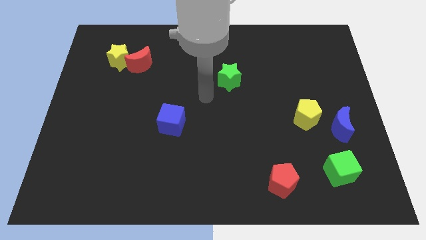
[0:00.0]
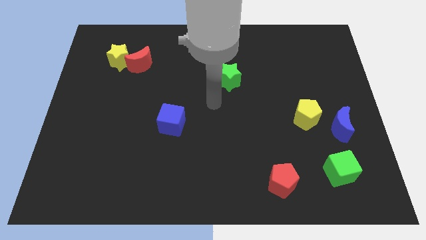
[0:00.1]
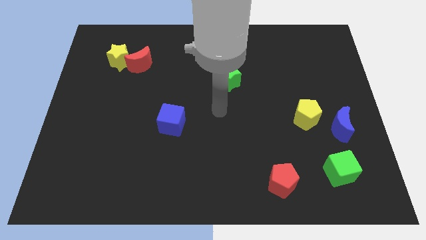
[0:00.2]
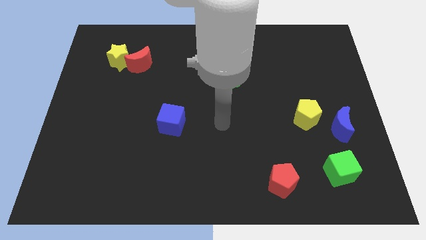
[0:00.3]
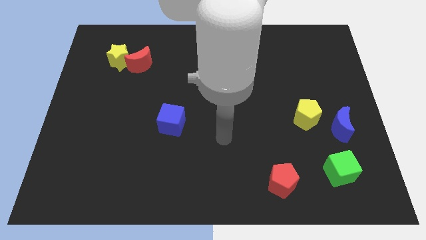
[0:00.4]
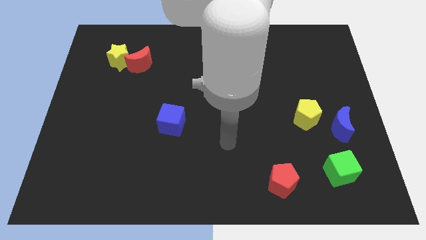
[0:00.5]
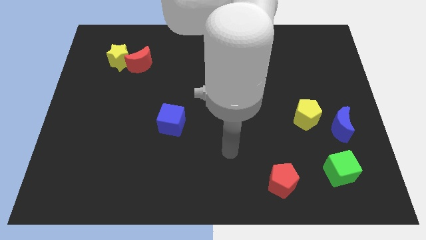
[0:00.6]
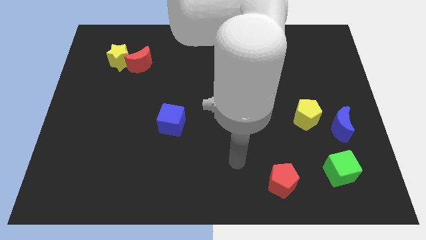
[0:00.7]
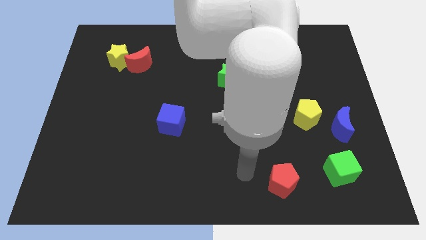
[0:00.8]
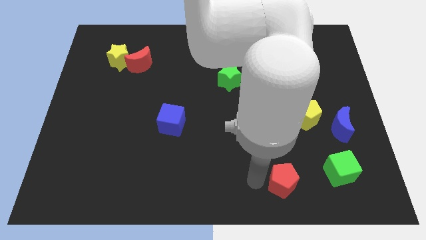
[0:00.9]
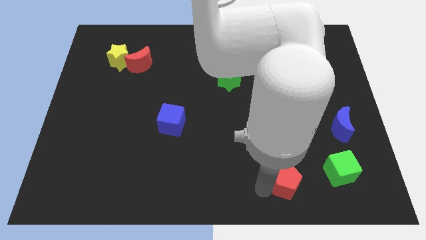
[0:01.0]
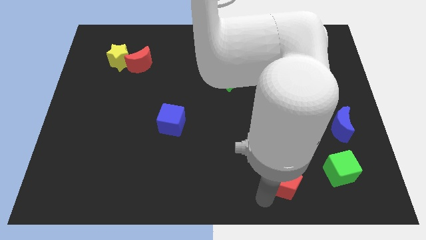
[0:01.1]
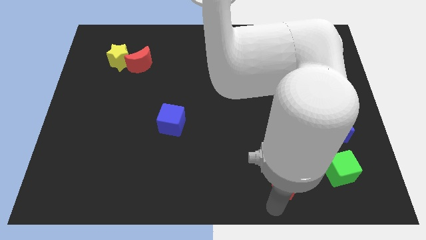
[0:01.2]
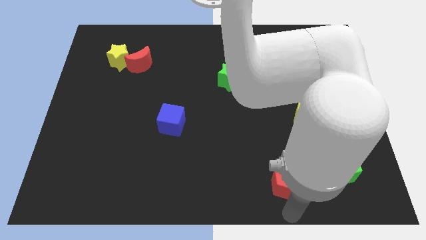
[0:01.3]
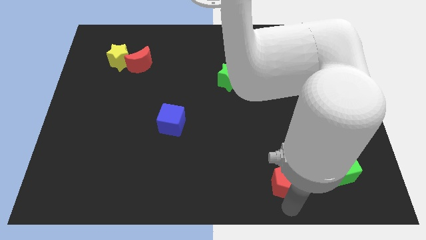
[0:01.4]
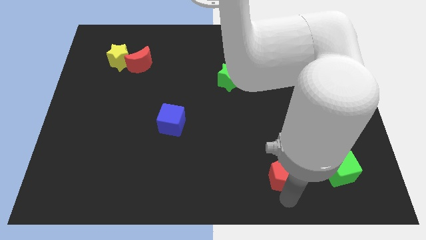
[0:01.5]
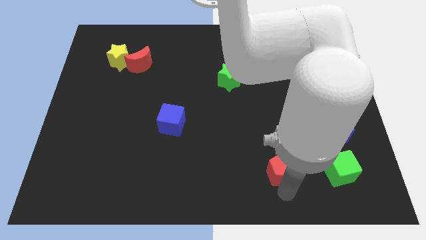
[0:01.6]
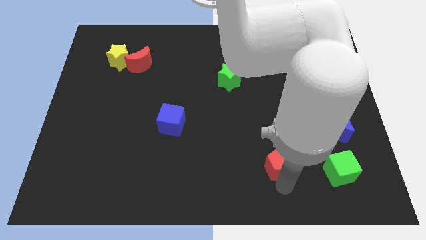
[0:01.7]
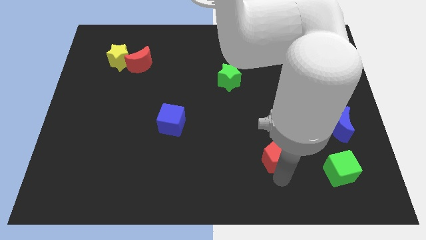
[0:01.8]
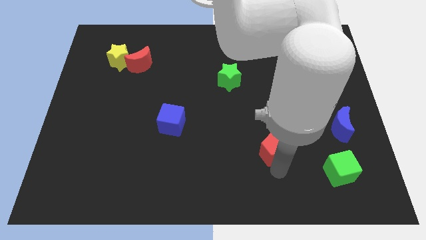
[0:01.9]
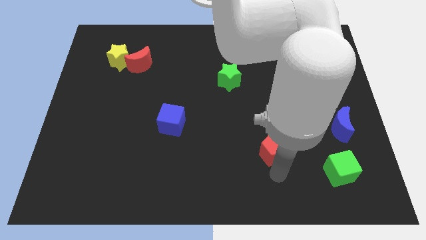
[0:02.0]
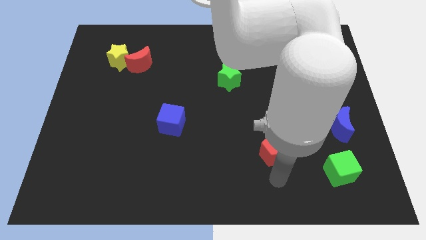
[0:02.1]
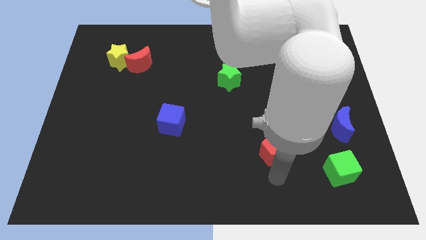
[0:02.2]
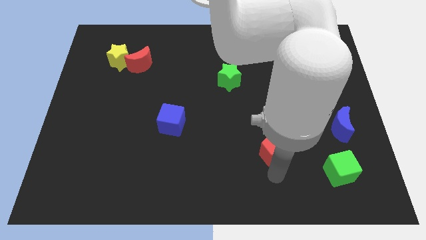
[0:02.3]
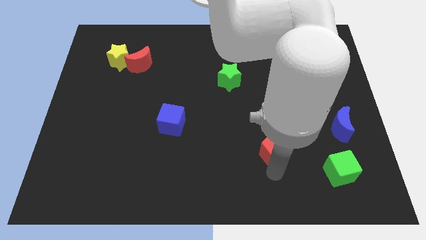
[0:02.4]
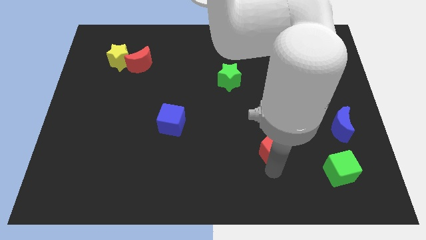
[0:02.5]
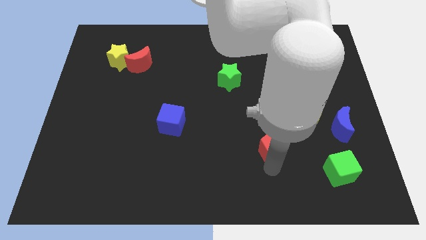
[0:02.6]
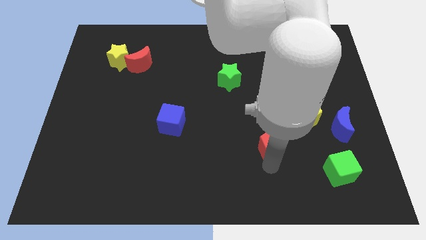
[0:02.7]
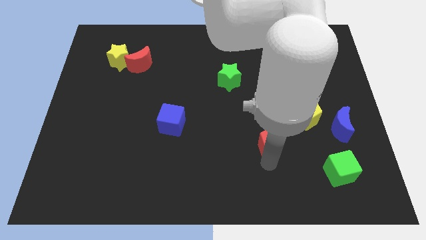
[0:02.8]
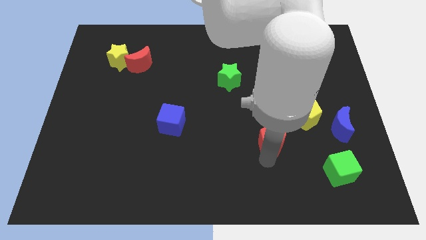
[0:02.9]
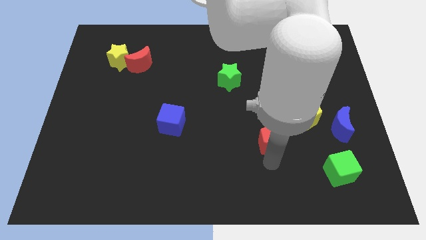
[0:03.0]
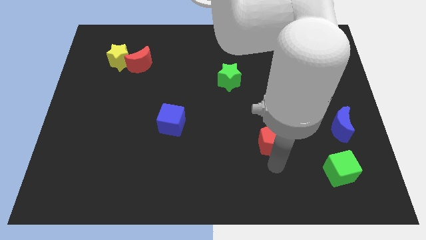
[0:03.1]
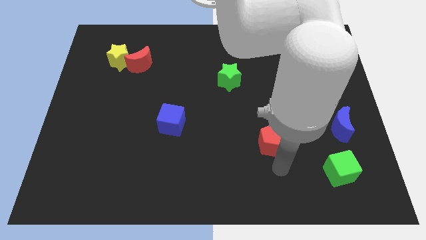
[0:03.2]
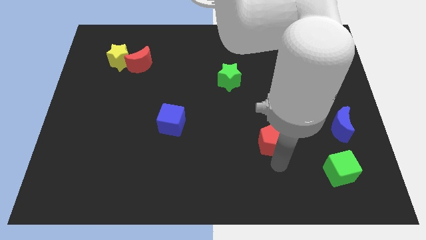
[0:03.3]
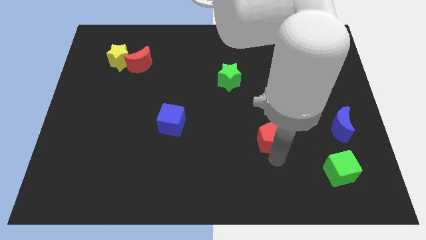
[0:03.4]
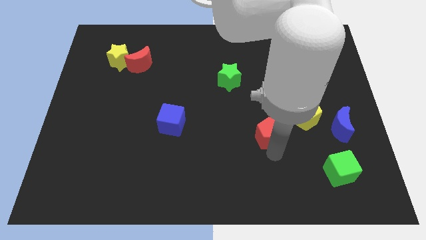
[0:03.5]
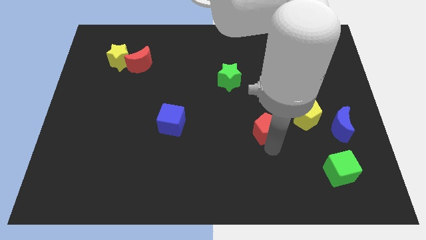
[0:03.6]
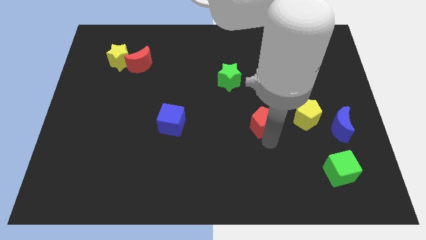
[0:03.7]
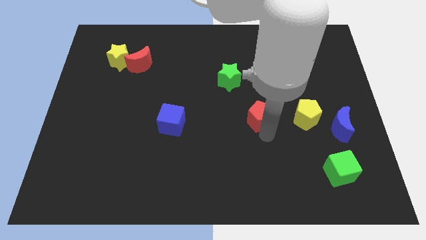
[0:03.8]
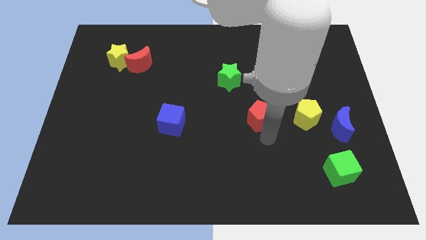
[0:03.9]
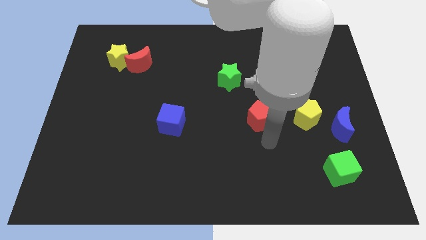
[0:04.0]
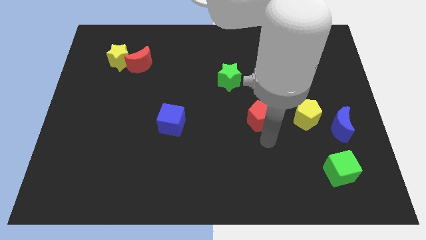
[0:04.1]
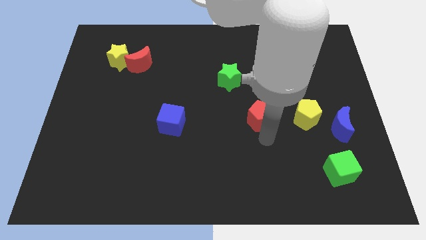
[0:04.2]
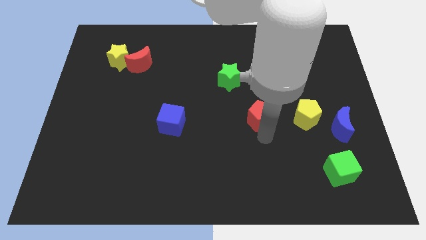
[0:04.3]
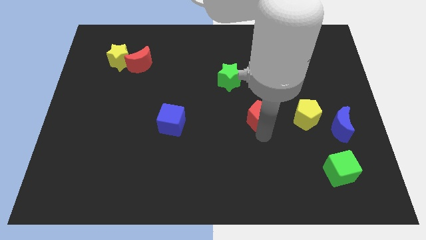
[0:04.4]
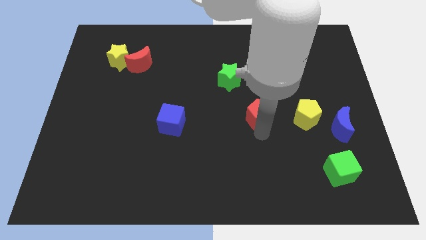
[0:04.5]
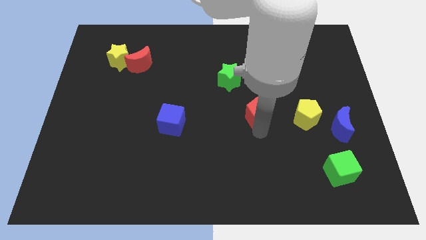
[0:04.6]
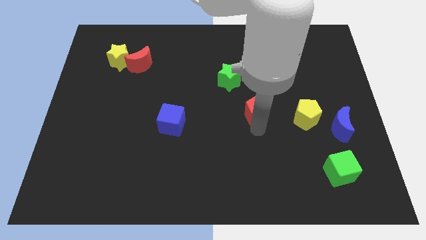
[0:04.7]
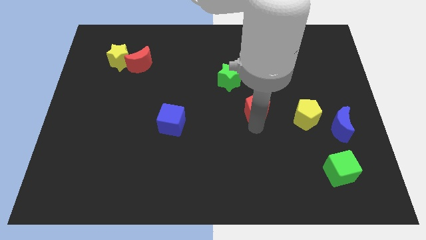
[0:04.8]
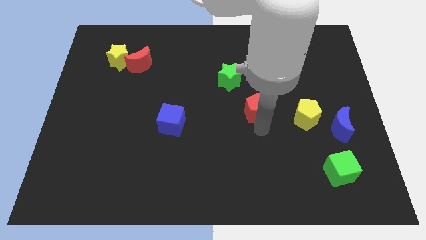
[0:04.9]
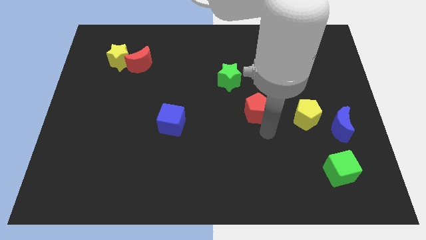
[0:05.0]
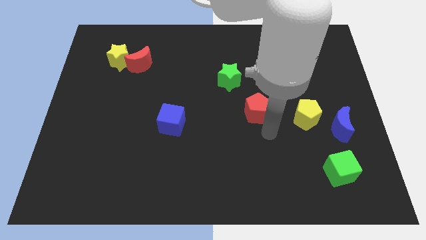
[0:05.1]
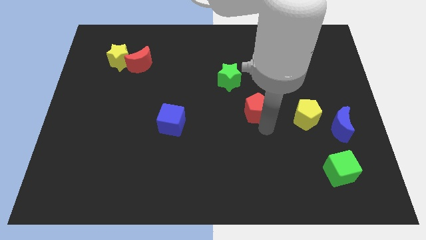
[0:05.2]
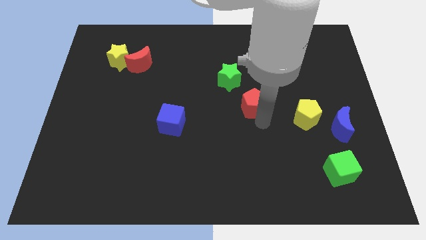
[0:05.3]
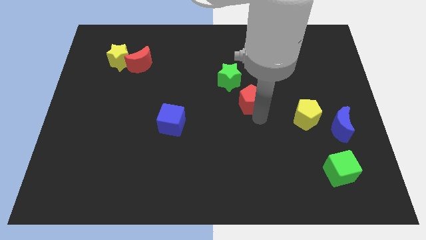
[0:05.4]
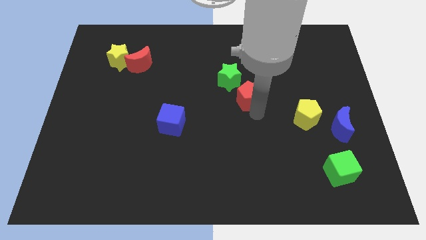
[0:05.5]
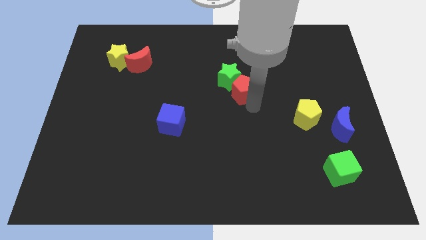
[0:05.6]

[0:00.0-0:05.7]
move the red pentagon close to the green star
